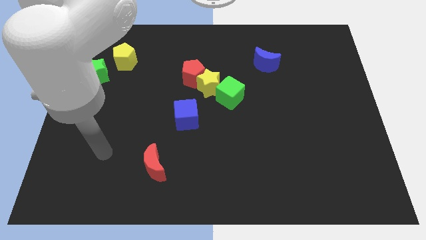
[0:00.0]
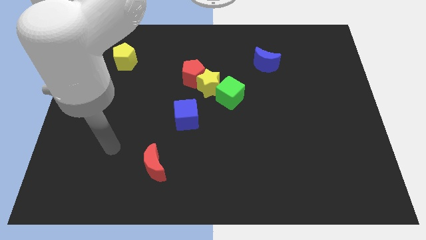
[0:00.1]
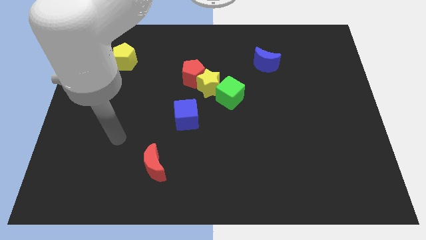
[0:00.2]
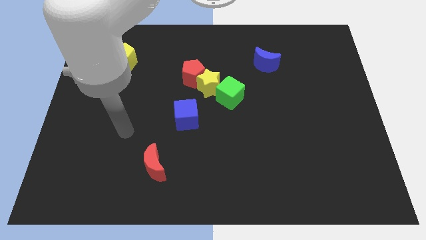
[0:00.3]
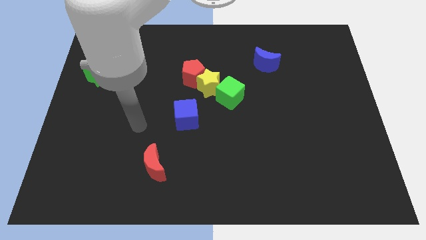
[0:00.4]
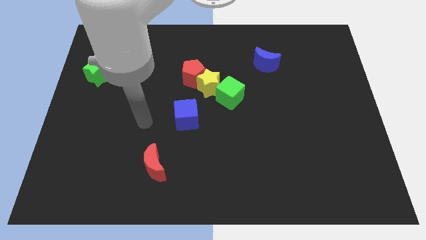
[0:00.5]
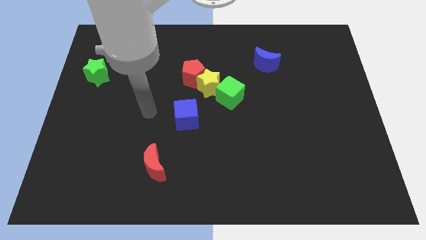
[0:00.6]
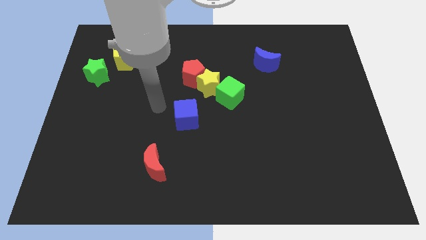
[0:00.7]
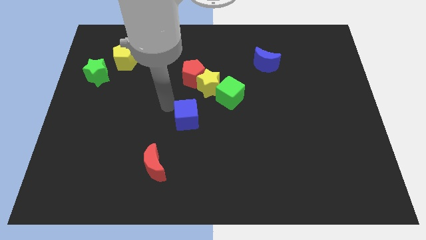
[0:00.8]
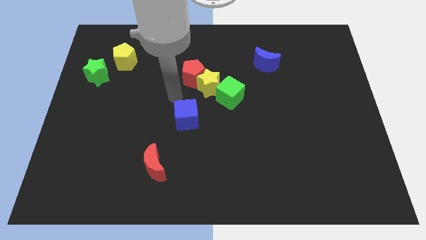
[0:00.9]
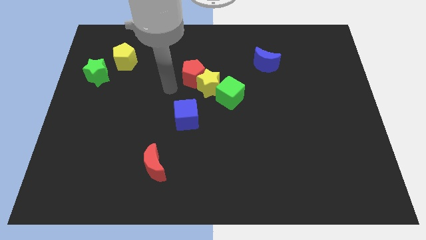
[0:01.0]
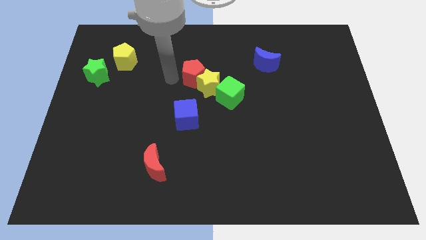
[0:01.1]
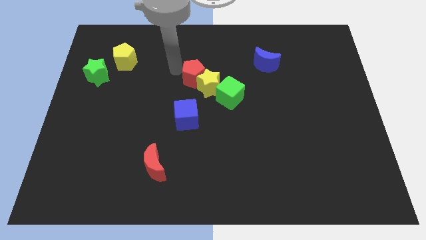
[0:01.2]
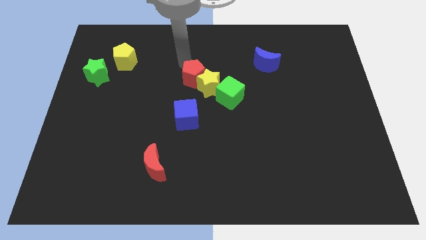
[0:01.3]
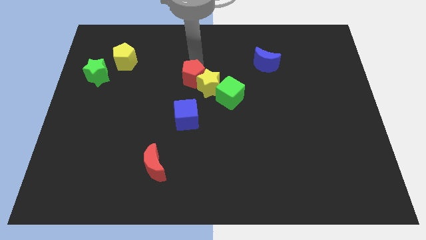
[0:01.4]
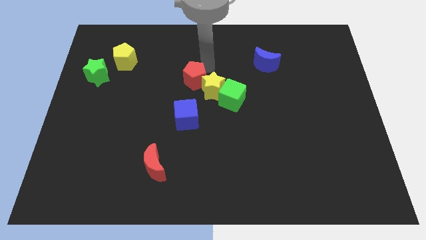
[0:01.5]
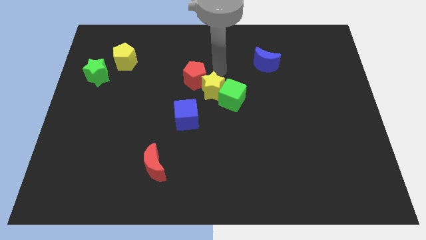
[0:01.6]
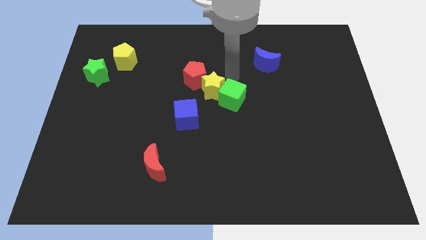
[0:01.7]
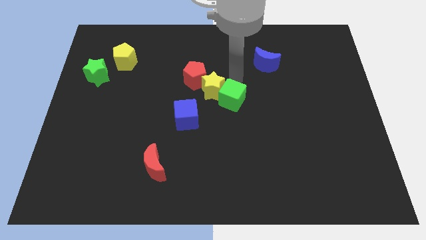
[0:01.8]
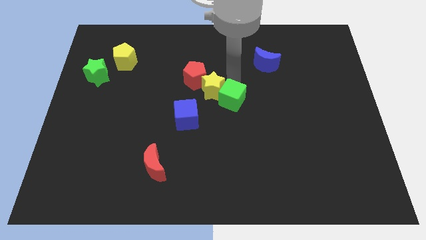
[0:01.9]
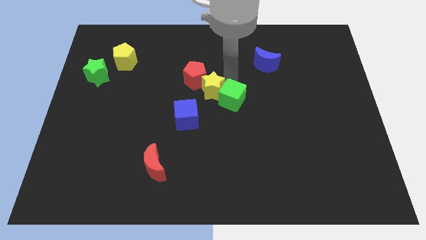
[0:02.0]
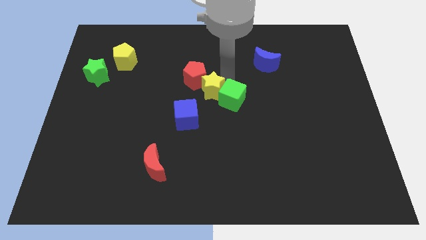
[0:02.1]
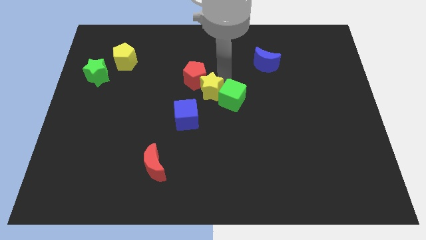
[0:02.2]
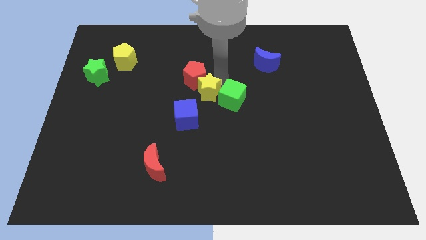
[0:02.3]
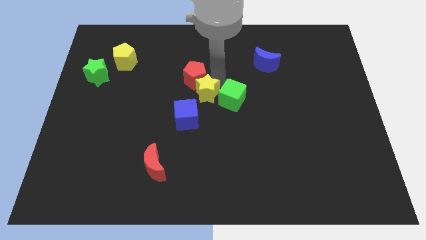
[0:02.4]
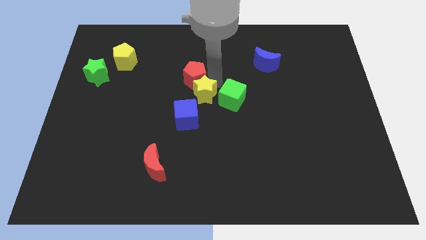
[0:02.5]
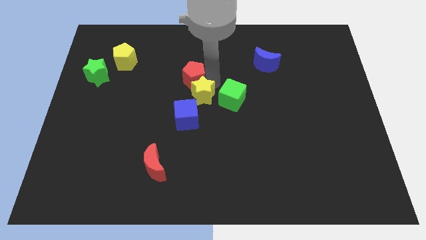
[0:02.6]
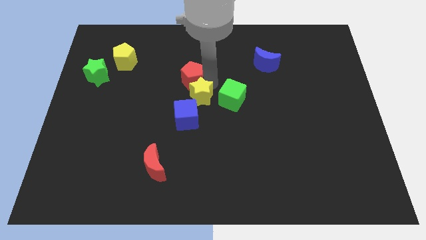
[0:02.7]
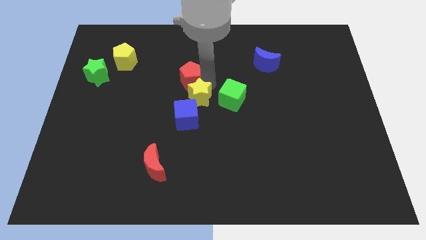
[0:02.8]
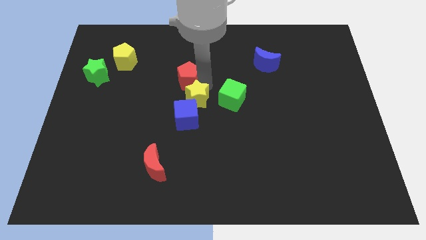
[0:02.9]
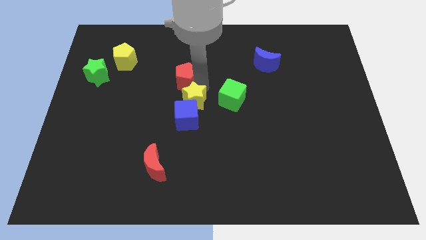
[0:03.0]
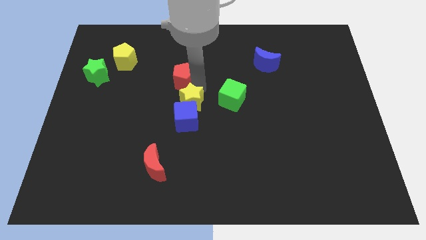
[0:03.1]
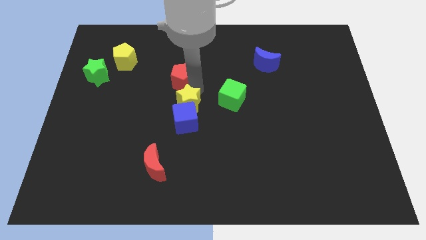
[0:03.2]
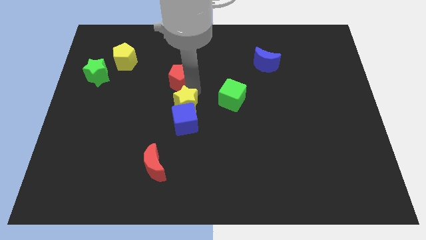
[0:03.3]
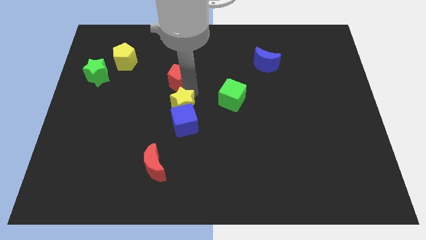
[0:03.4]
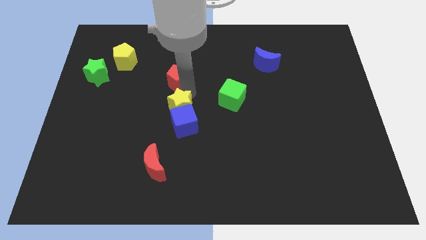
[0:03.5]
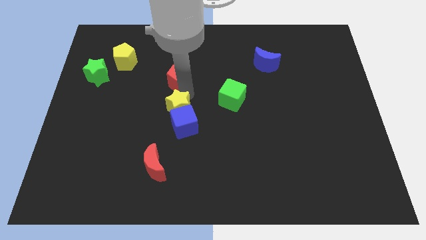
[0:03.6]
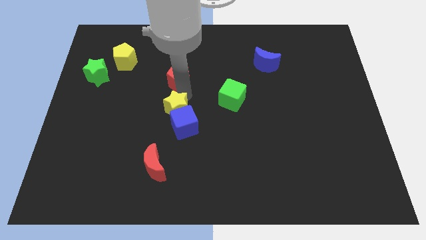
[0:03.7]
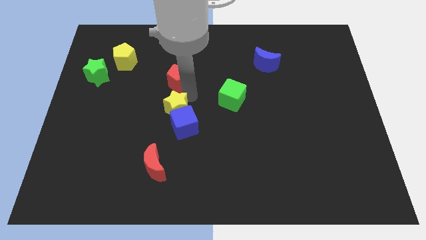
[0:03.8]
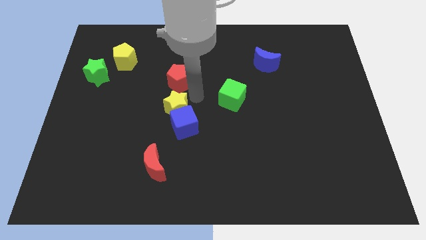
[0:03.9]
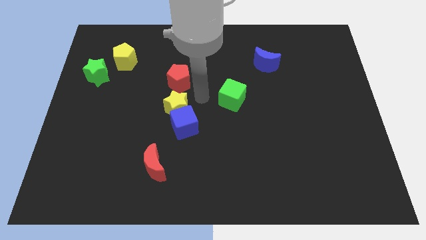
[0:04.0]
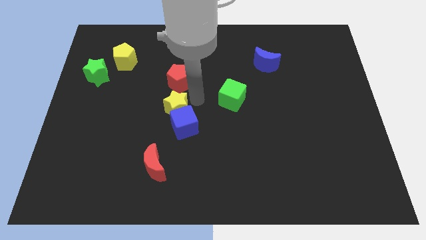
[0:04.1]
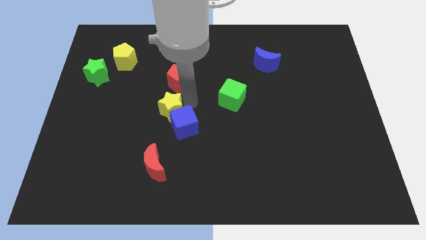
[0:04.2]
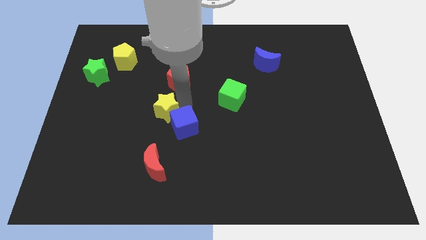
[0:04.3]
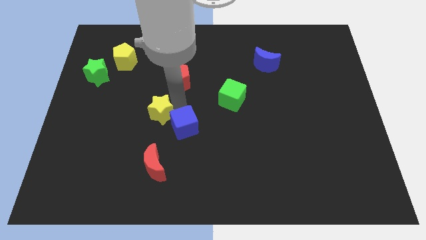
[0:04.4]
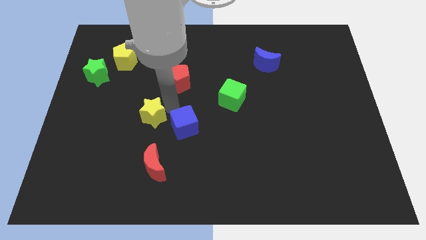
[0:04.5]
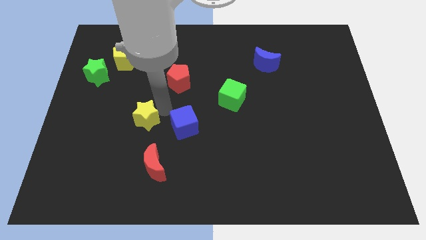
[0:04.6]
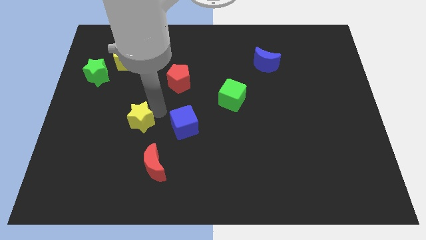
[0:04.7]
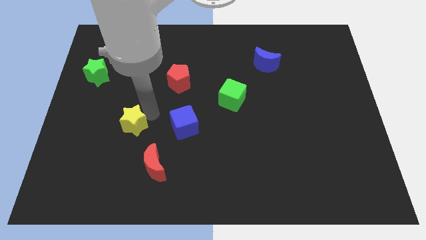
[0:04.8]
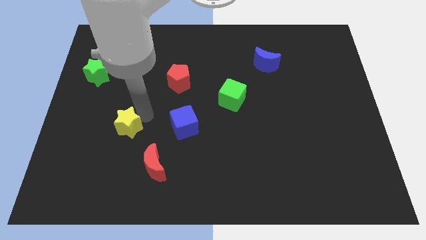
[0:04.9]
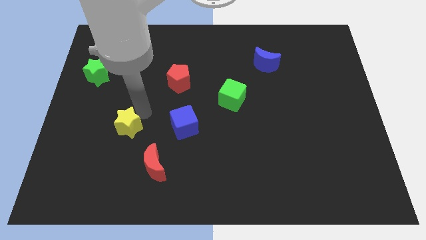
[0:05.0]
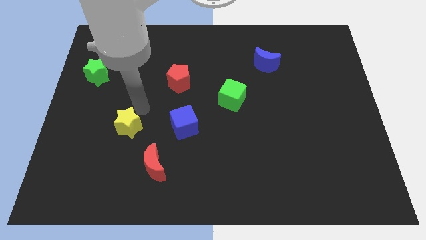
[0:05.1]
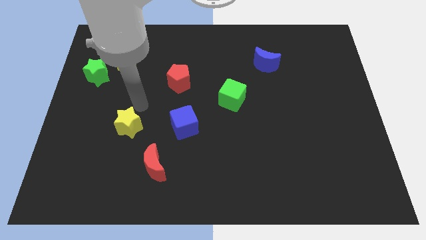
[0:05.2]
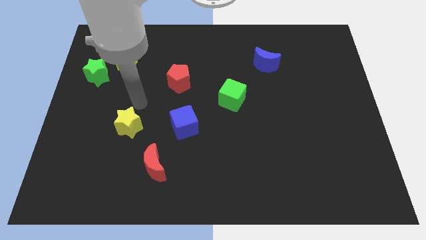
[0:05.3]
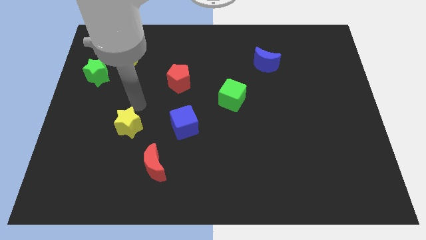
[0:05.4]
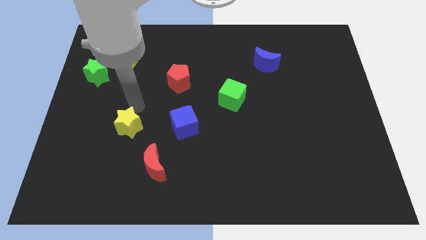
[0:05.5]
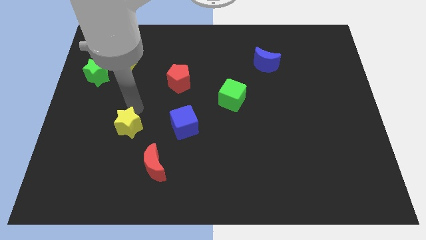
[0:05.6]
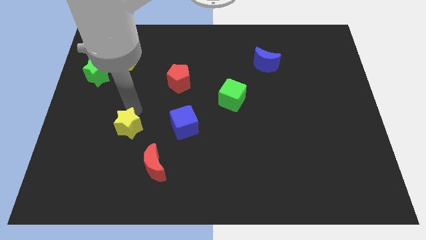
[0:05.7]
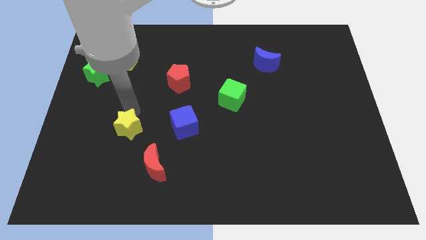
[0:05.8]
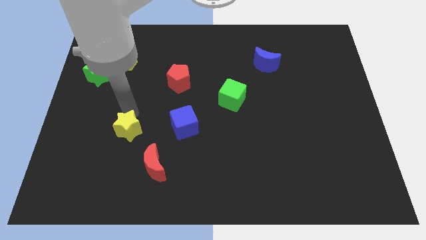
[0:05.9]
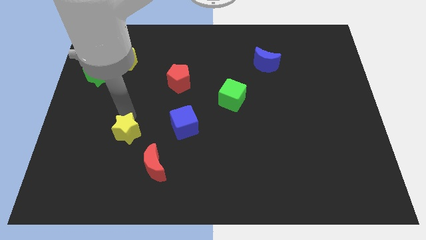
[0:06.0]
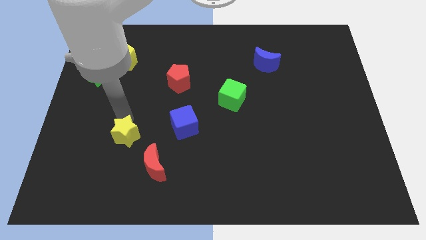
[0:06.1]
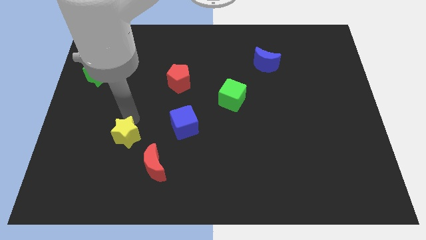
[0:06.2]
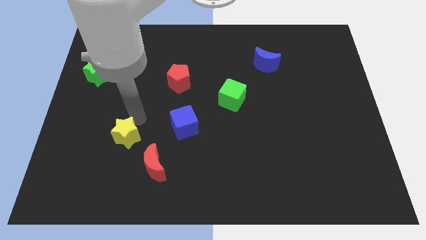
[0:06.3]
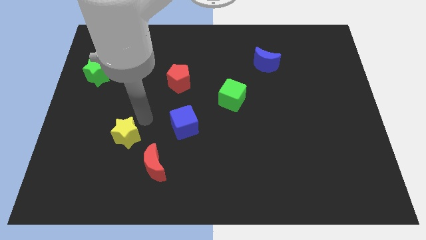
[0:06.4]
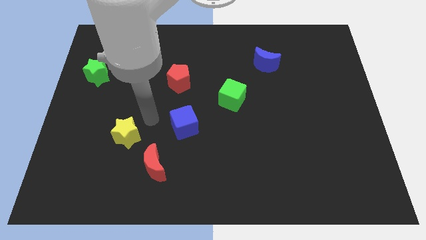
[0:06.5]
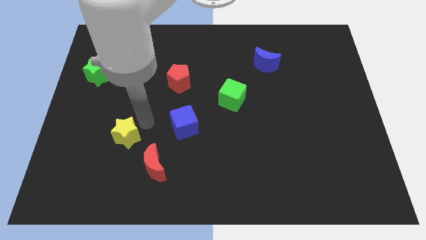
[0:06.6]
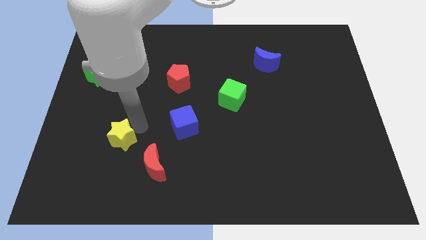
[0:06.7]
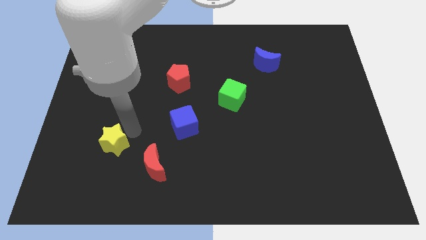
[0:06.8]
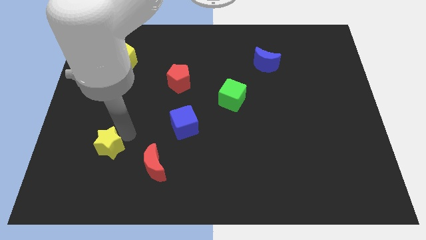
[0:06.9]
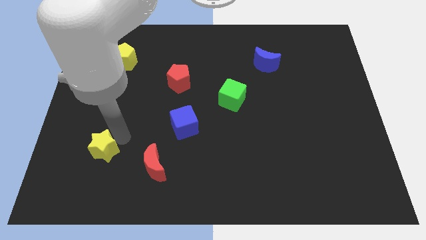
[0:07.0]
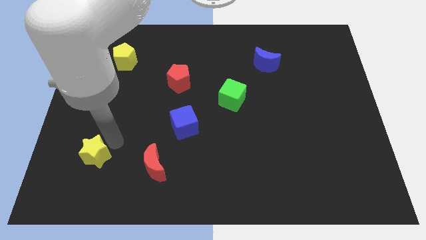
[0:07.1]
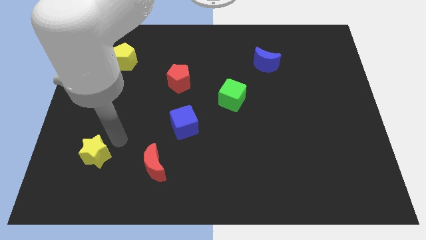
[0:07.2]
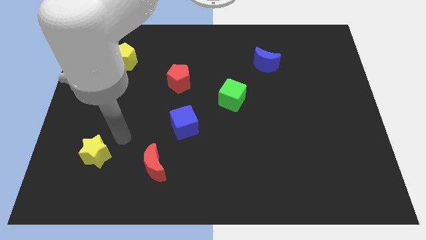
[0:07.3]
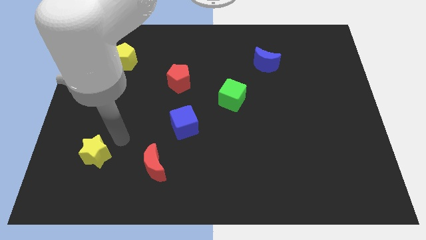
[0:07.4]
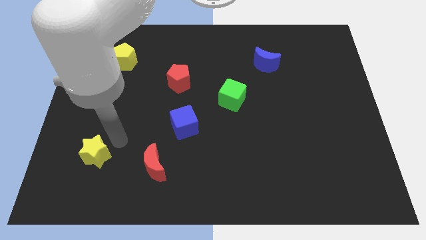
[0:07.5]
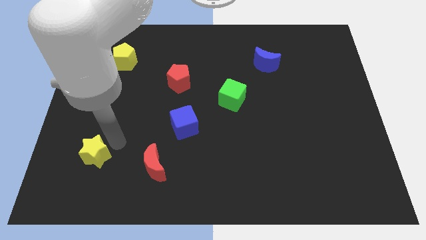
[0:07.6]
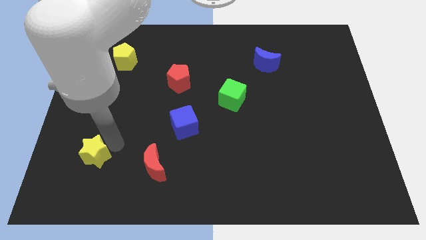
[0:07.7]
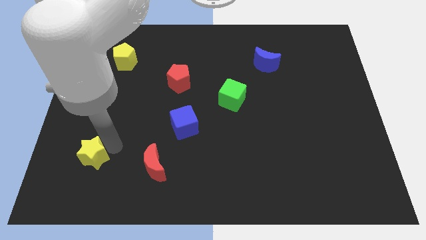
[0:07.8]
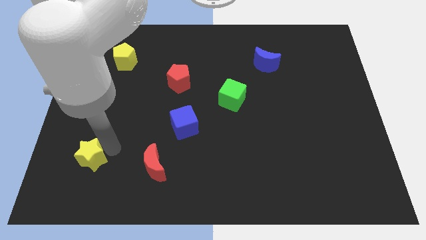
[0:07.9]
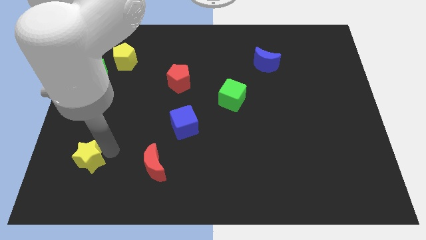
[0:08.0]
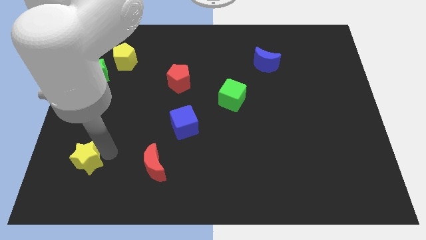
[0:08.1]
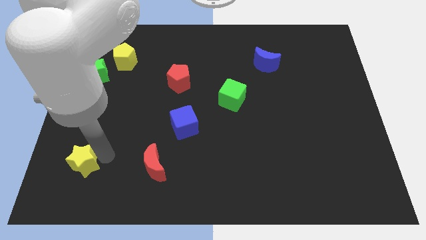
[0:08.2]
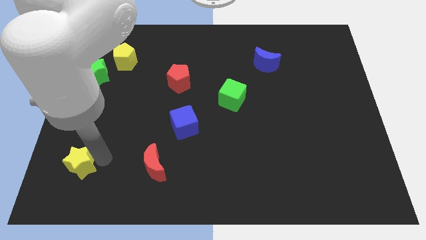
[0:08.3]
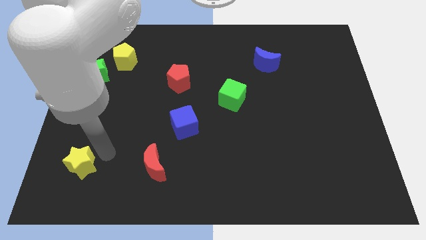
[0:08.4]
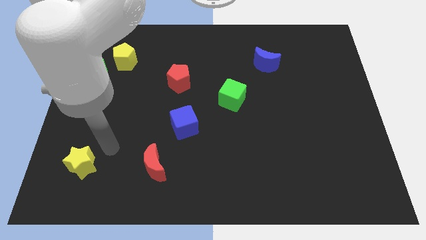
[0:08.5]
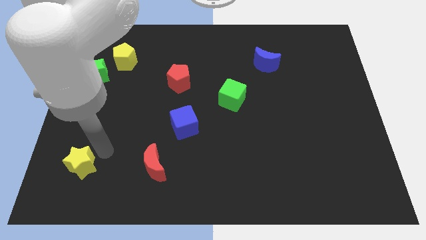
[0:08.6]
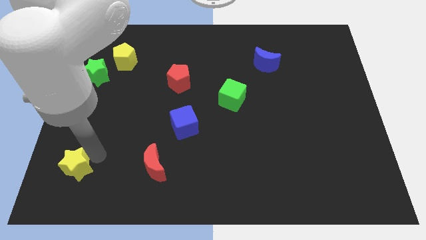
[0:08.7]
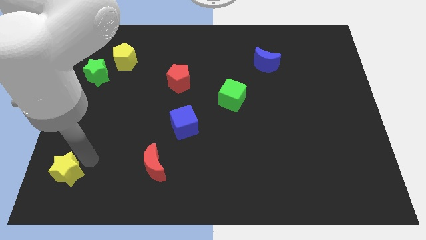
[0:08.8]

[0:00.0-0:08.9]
move the yellow star to the lower left corner

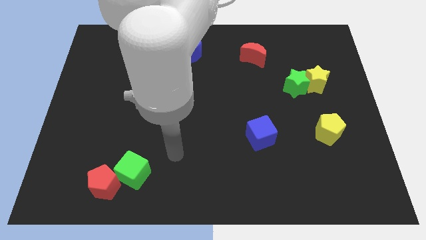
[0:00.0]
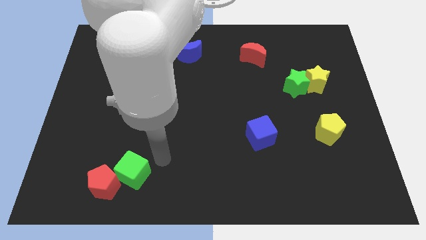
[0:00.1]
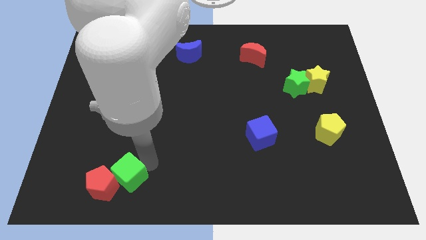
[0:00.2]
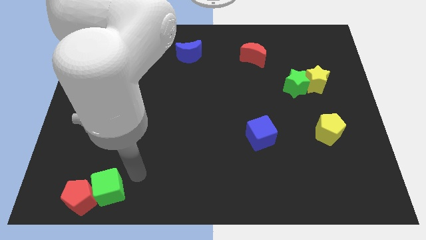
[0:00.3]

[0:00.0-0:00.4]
put the red pentagon to the lower left corner
